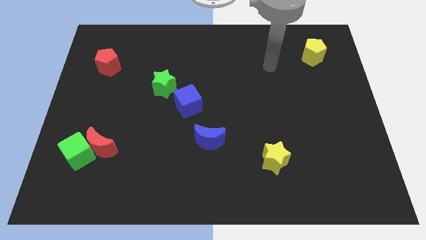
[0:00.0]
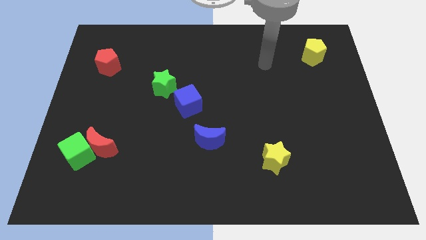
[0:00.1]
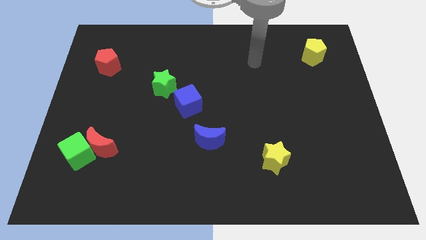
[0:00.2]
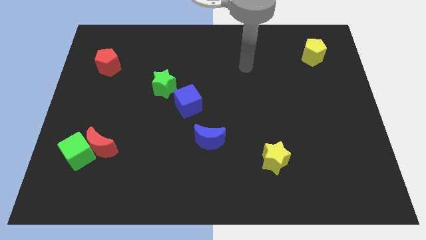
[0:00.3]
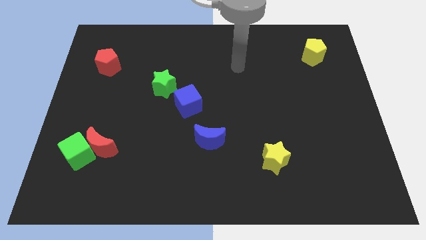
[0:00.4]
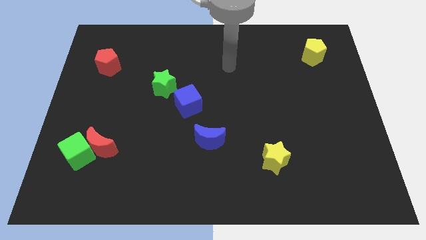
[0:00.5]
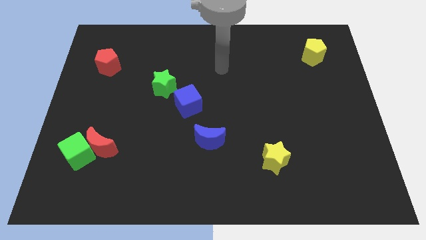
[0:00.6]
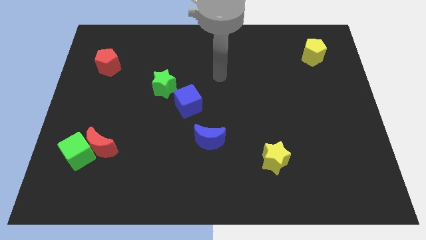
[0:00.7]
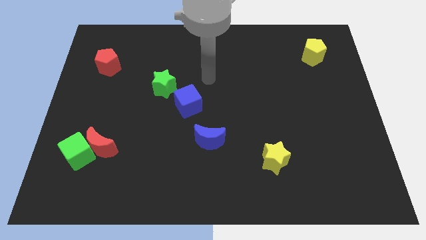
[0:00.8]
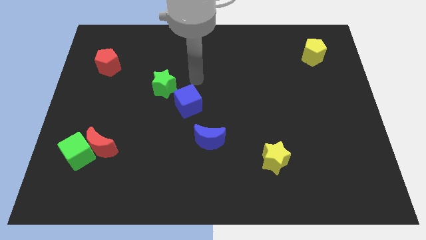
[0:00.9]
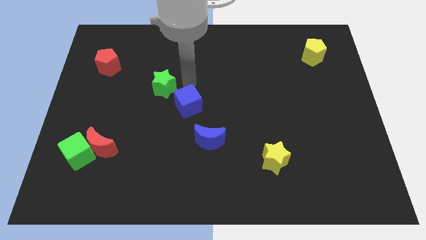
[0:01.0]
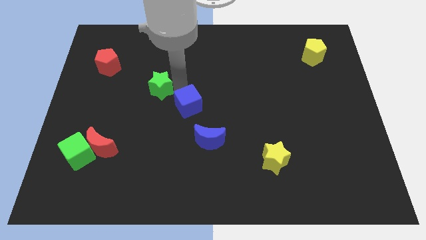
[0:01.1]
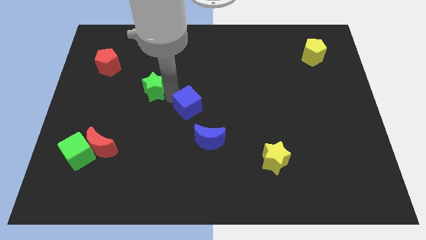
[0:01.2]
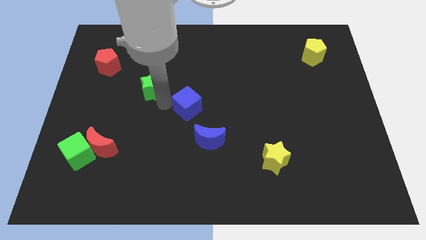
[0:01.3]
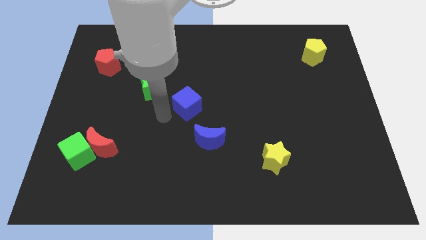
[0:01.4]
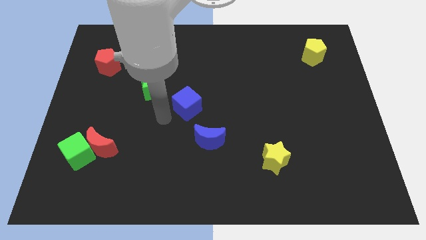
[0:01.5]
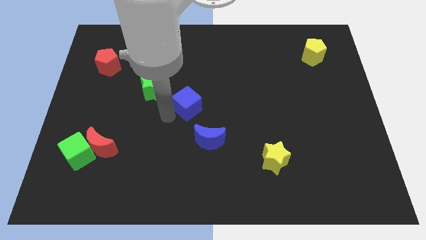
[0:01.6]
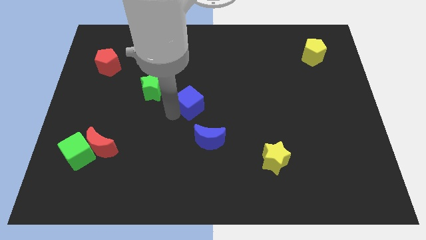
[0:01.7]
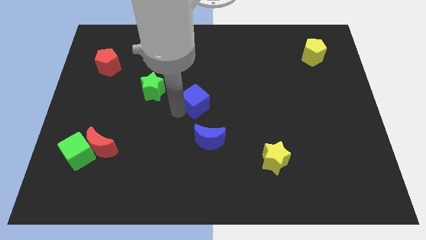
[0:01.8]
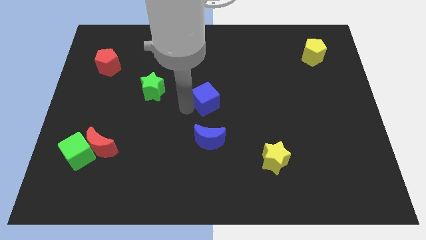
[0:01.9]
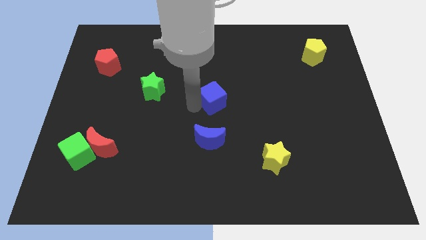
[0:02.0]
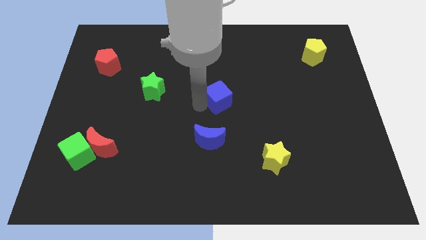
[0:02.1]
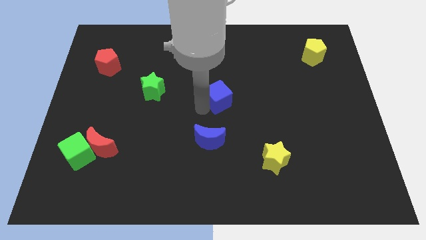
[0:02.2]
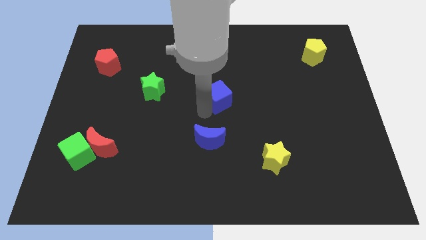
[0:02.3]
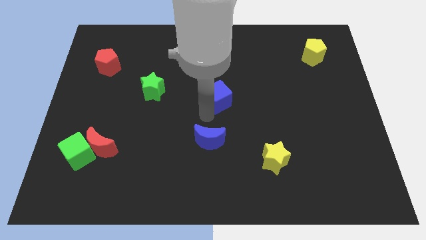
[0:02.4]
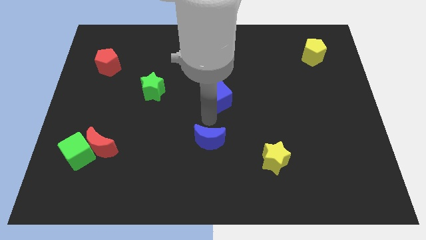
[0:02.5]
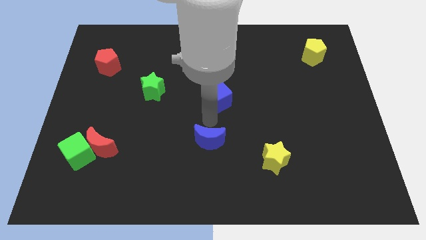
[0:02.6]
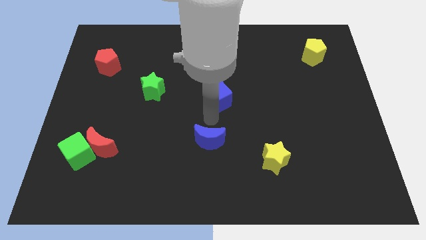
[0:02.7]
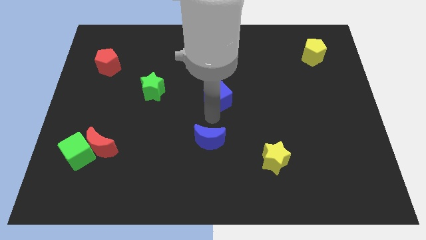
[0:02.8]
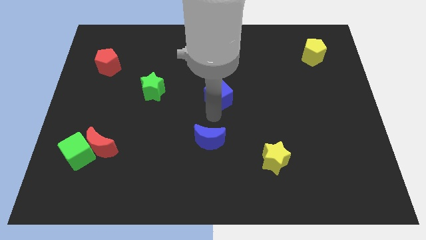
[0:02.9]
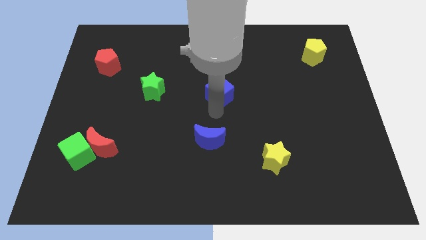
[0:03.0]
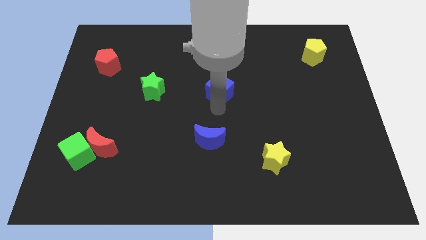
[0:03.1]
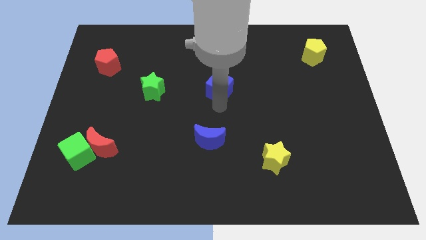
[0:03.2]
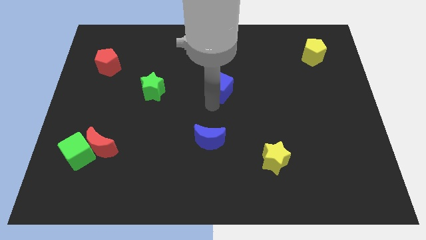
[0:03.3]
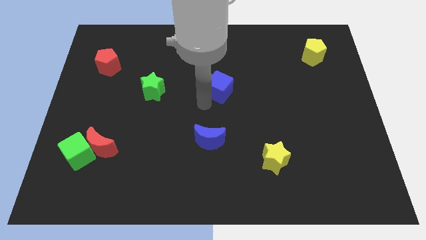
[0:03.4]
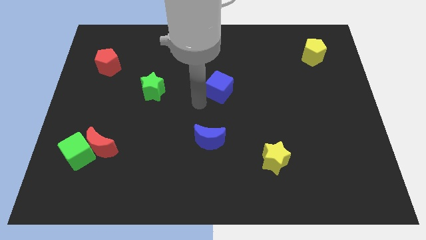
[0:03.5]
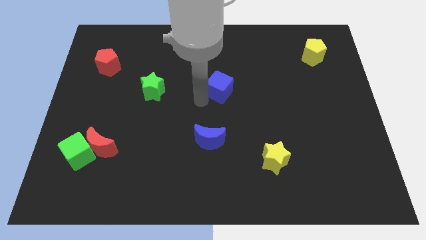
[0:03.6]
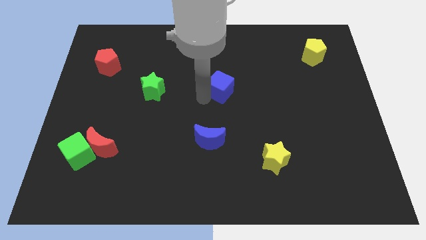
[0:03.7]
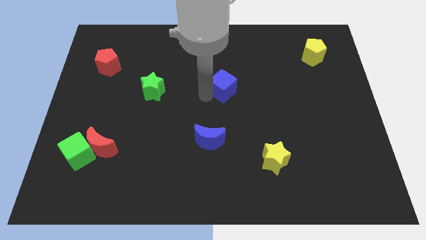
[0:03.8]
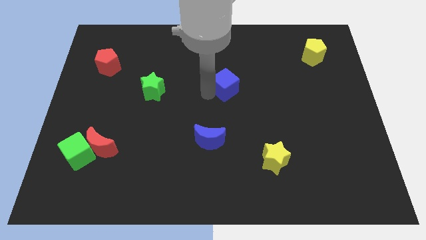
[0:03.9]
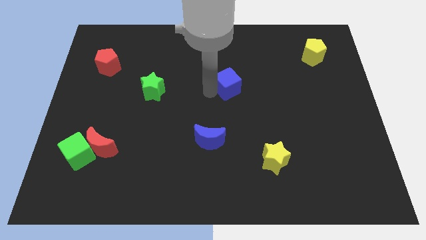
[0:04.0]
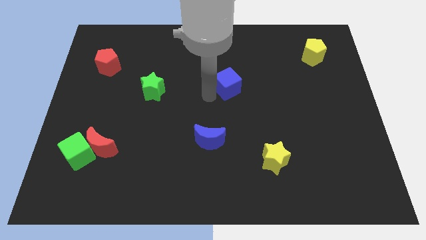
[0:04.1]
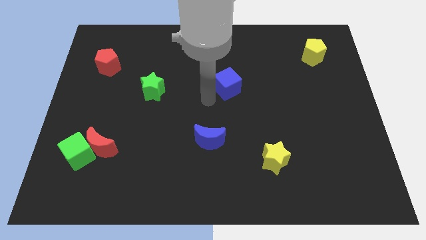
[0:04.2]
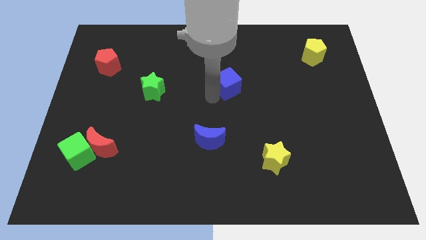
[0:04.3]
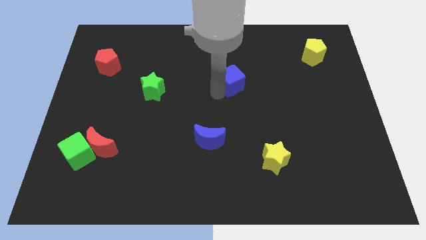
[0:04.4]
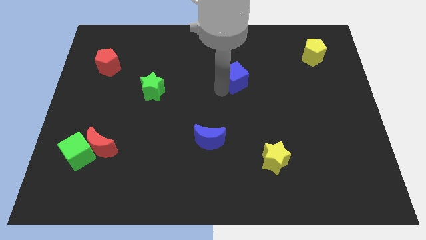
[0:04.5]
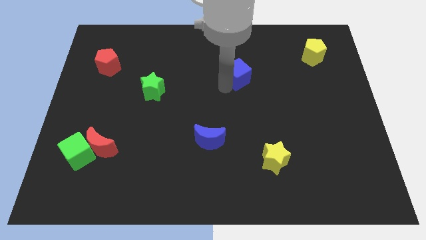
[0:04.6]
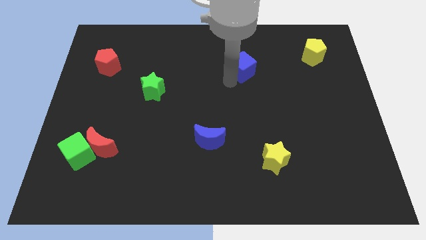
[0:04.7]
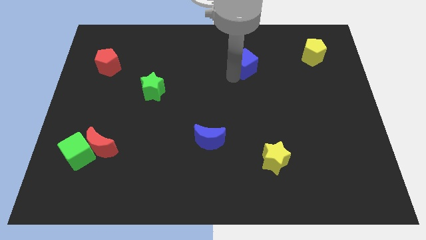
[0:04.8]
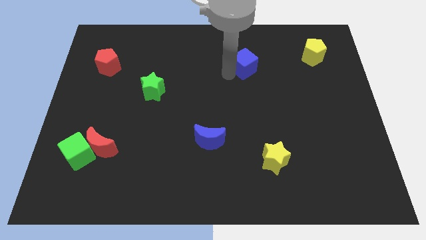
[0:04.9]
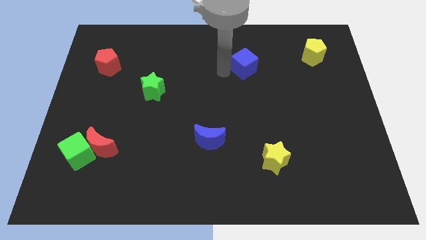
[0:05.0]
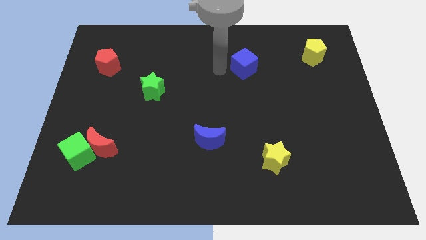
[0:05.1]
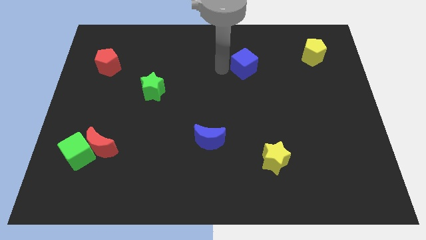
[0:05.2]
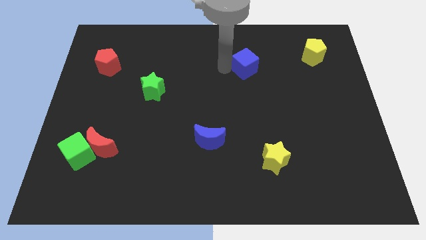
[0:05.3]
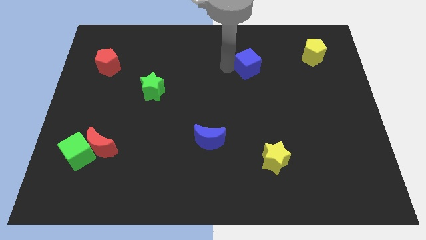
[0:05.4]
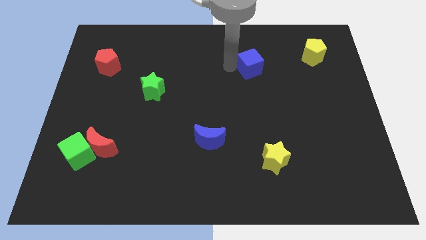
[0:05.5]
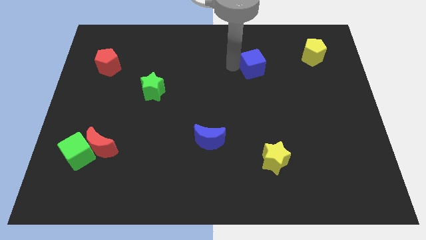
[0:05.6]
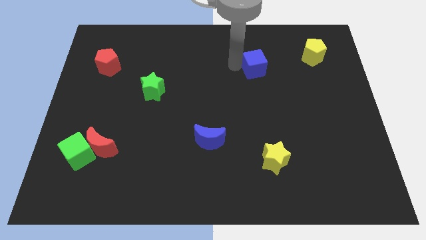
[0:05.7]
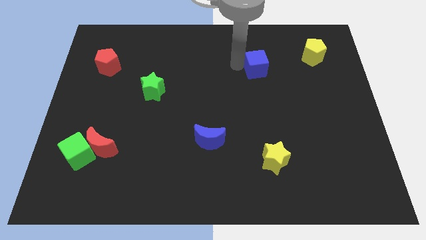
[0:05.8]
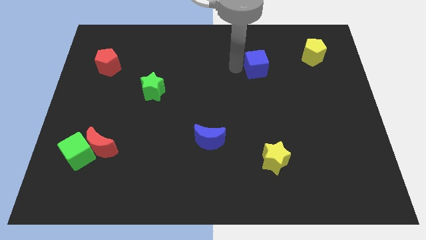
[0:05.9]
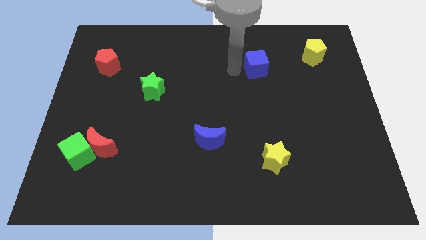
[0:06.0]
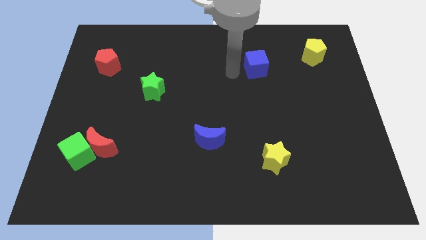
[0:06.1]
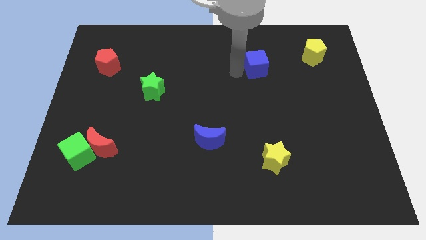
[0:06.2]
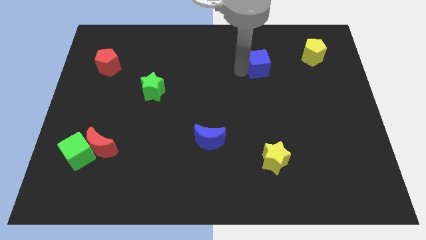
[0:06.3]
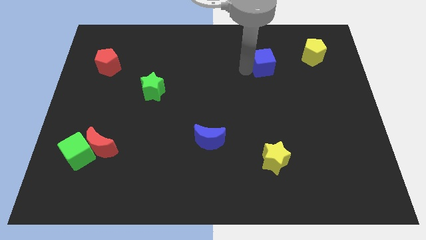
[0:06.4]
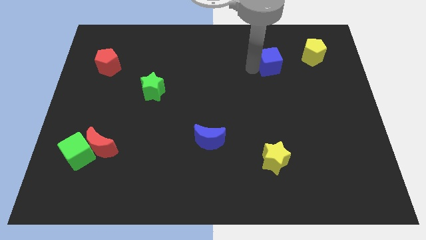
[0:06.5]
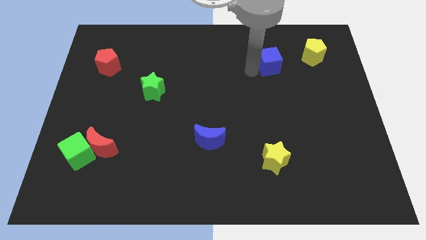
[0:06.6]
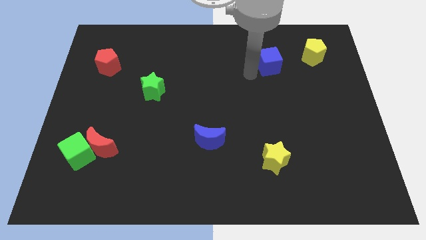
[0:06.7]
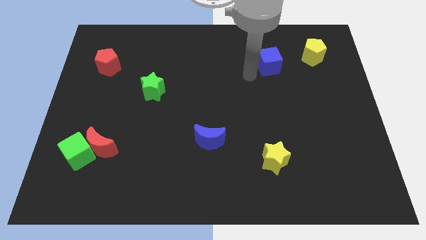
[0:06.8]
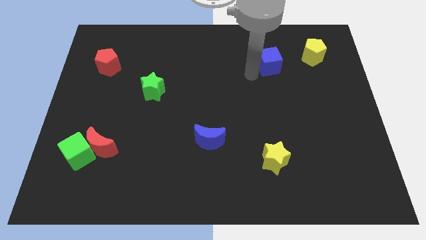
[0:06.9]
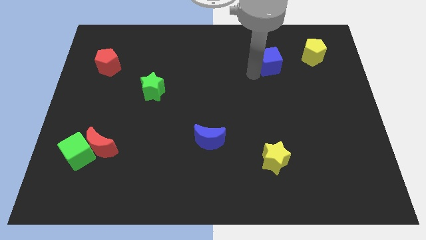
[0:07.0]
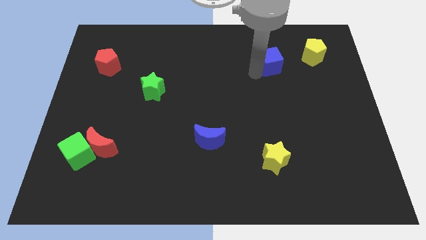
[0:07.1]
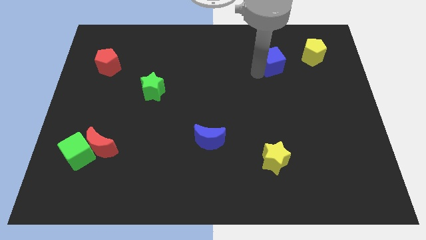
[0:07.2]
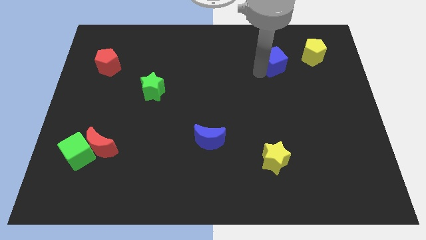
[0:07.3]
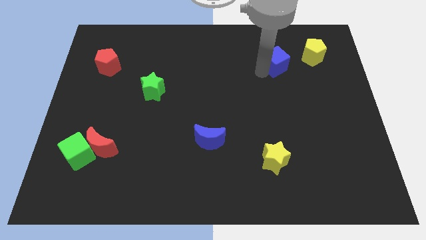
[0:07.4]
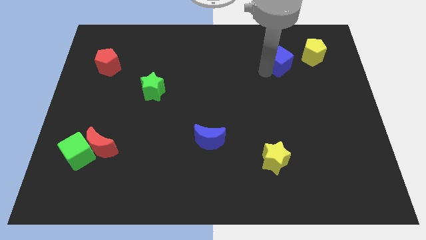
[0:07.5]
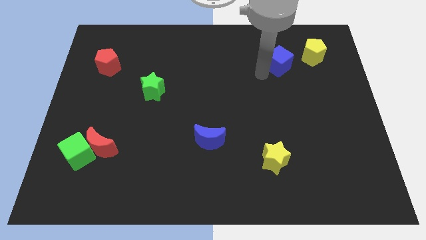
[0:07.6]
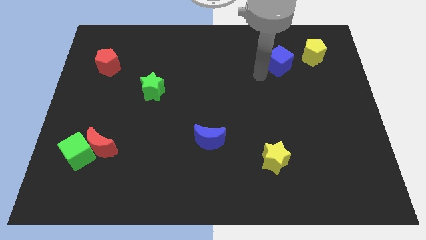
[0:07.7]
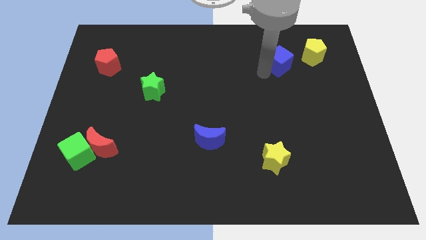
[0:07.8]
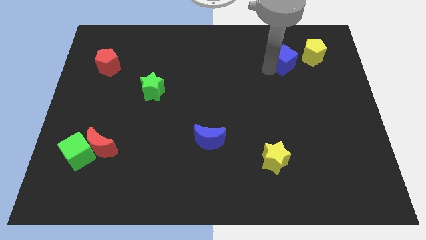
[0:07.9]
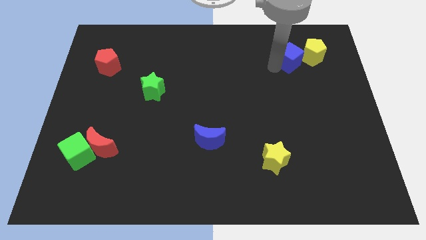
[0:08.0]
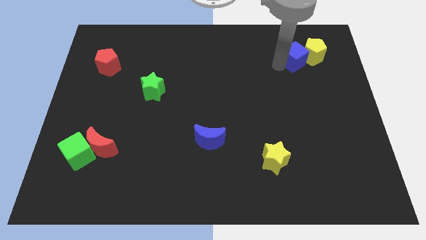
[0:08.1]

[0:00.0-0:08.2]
slide the blue cube close to the yellow pentagon
